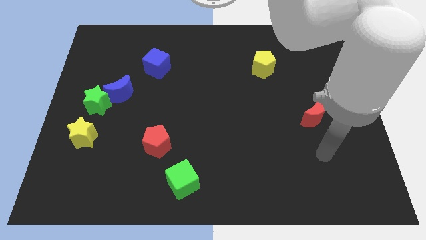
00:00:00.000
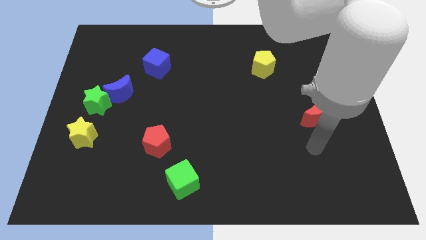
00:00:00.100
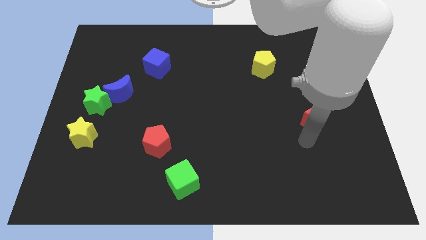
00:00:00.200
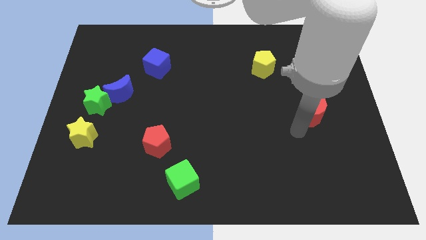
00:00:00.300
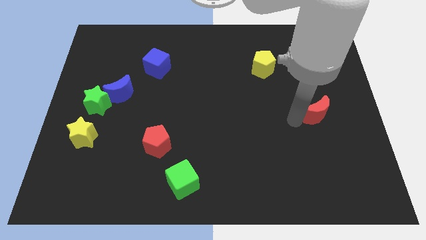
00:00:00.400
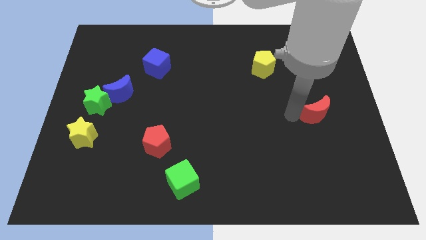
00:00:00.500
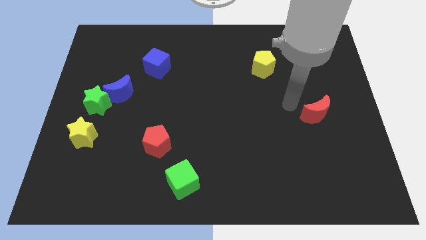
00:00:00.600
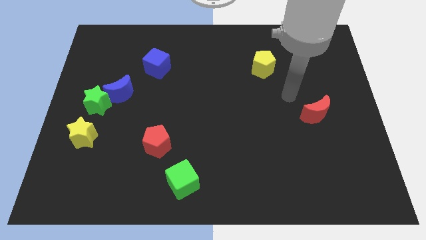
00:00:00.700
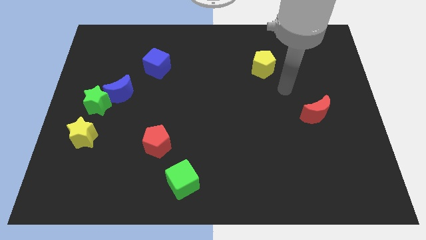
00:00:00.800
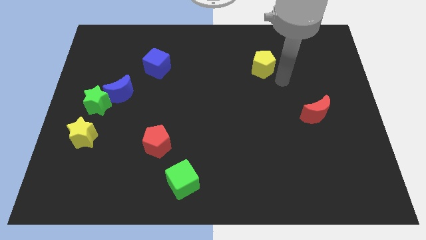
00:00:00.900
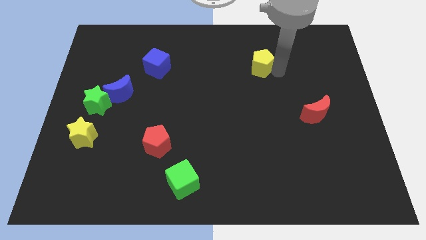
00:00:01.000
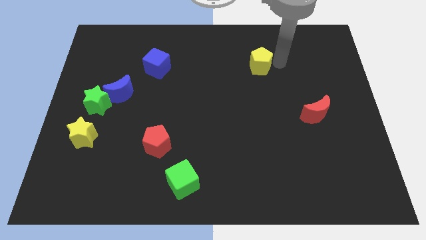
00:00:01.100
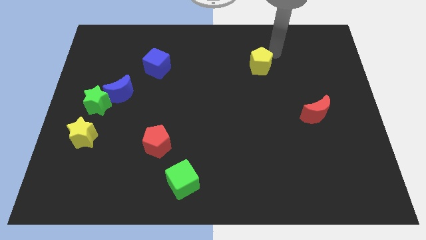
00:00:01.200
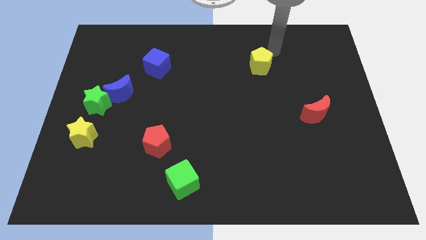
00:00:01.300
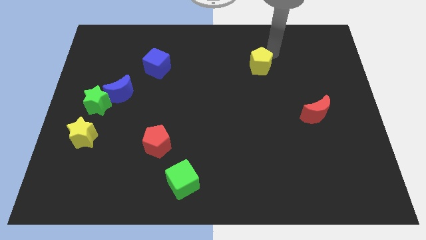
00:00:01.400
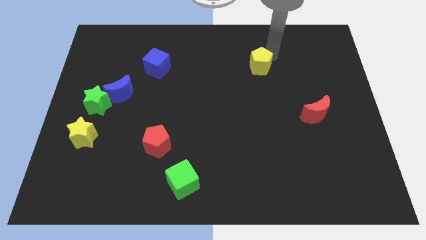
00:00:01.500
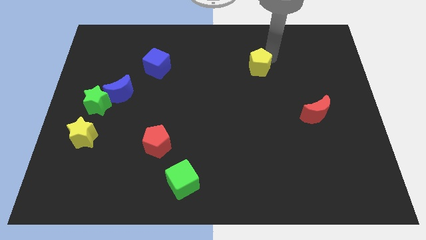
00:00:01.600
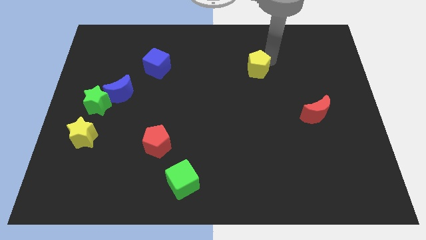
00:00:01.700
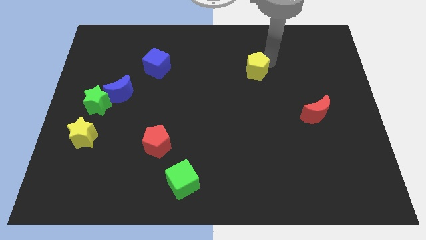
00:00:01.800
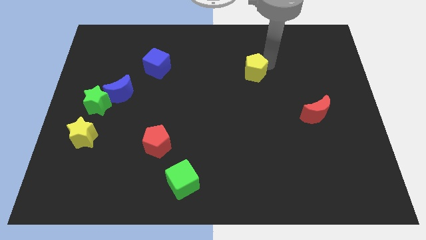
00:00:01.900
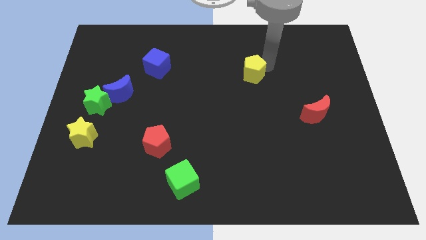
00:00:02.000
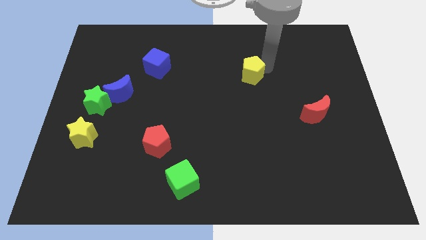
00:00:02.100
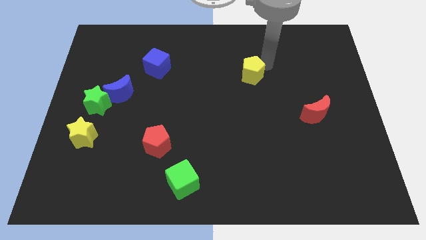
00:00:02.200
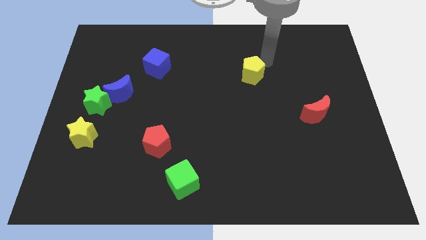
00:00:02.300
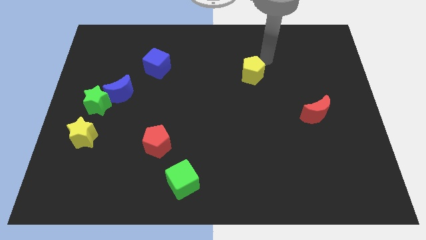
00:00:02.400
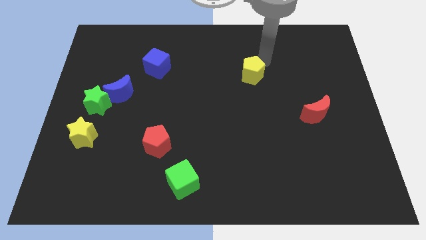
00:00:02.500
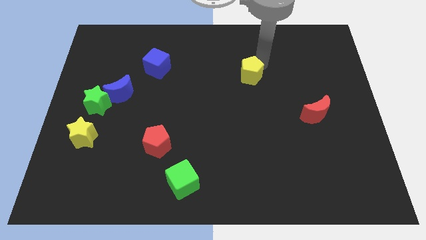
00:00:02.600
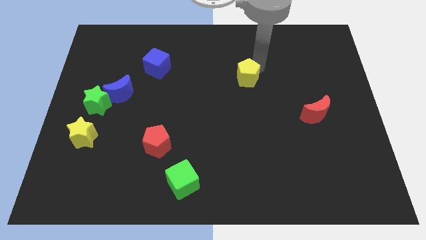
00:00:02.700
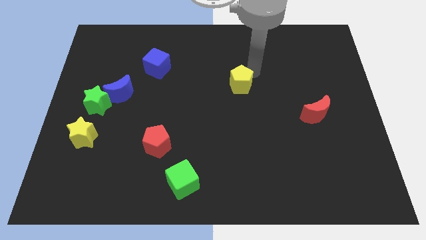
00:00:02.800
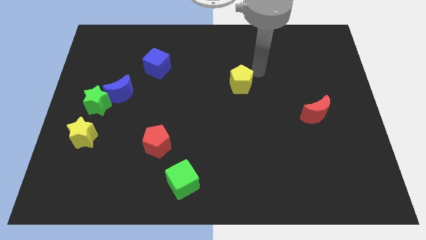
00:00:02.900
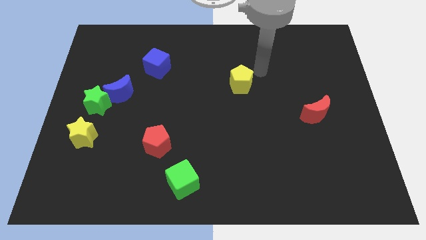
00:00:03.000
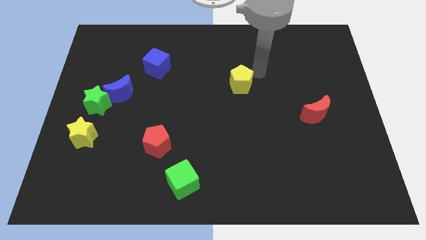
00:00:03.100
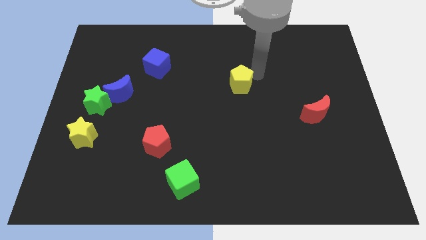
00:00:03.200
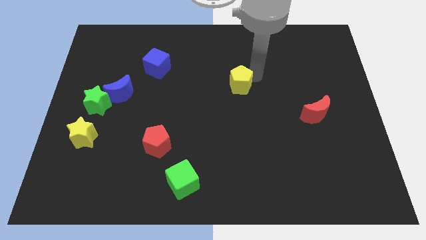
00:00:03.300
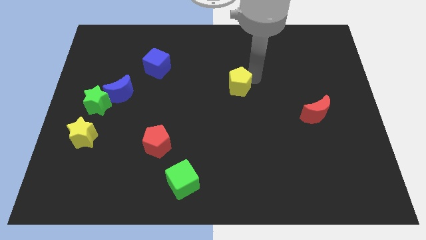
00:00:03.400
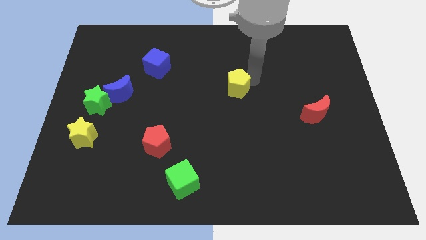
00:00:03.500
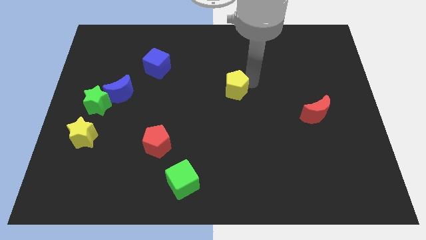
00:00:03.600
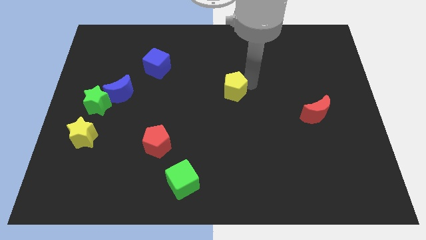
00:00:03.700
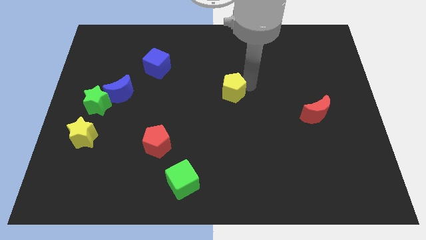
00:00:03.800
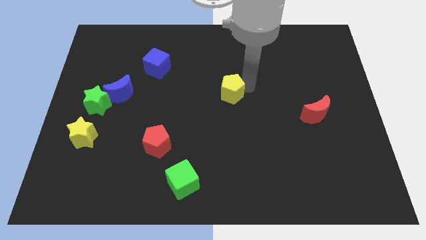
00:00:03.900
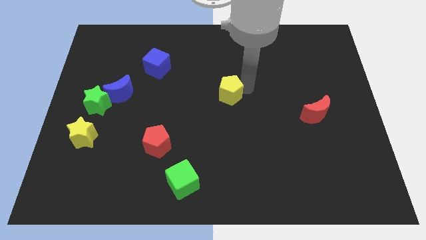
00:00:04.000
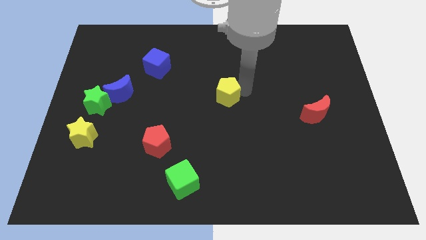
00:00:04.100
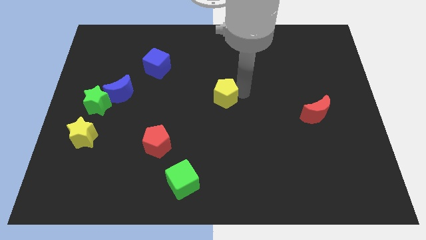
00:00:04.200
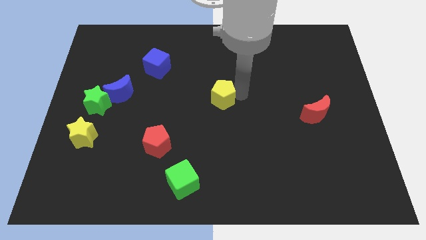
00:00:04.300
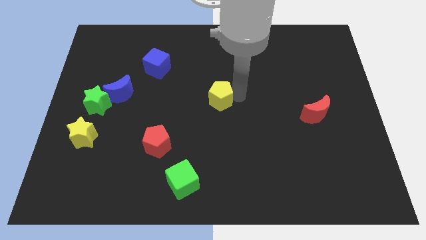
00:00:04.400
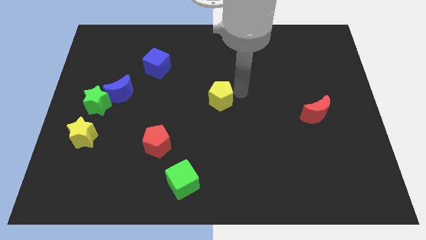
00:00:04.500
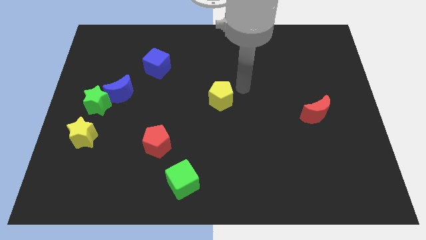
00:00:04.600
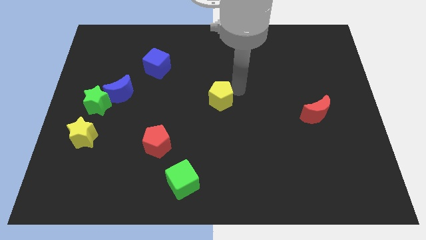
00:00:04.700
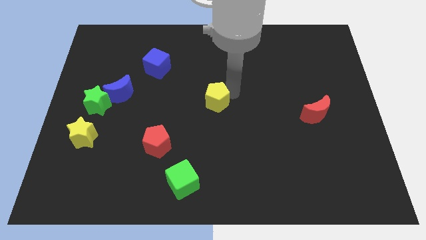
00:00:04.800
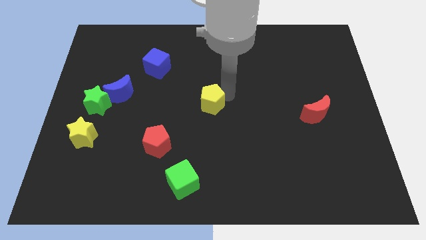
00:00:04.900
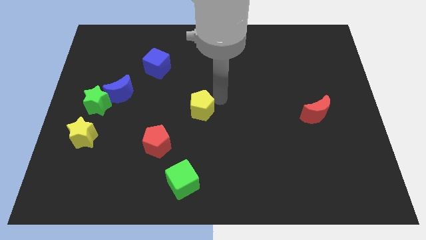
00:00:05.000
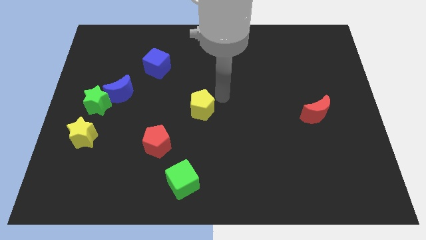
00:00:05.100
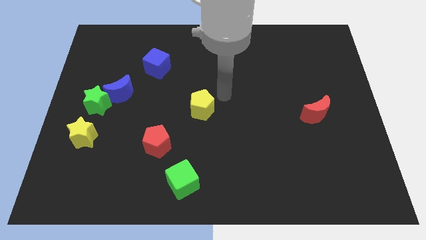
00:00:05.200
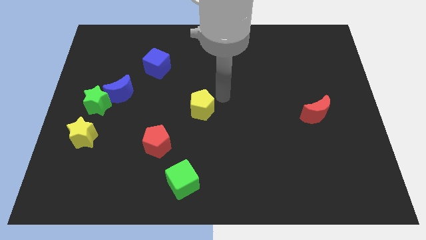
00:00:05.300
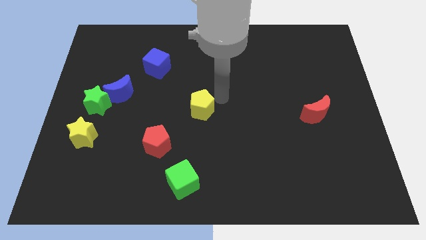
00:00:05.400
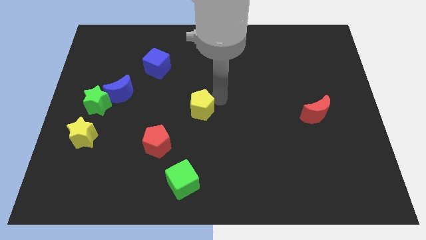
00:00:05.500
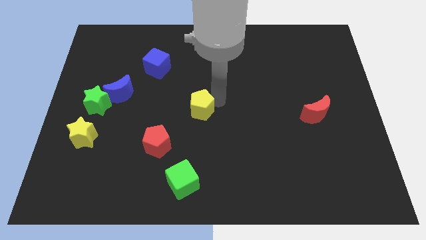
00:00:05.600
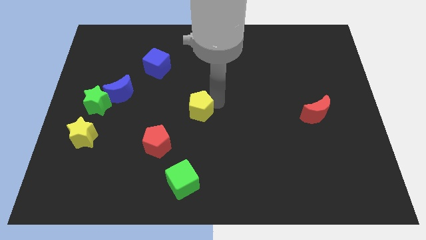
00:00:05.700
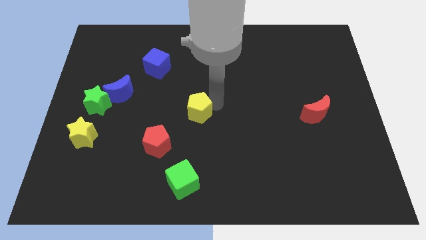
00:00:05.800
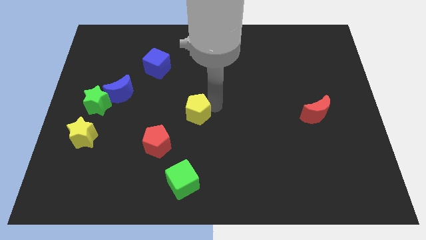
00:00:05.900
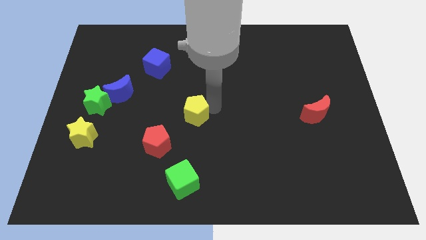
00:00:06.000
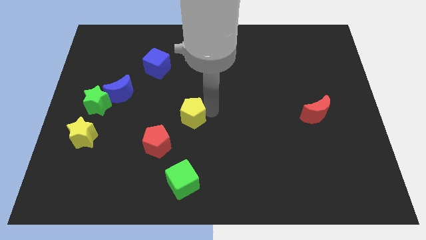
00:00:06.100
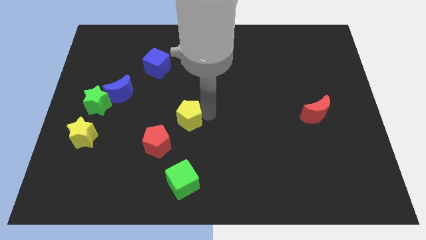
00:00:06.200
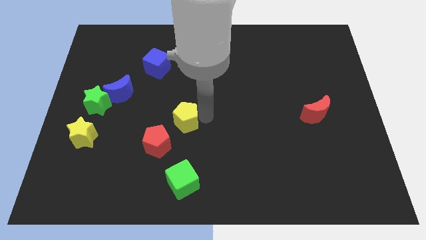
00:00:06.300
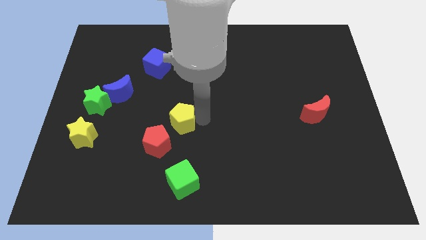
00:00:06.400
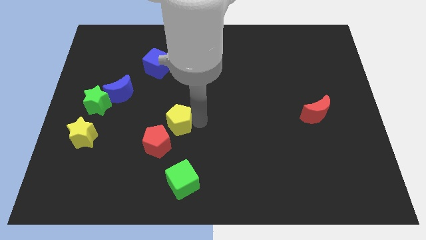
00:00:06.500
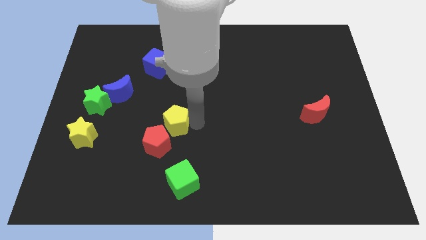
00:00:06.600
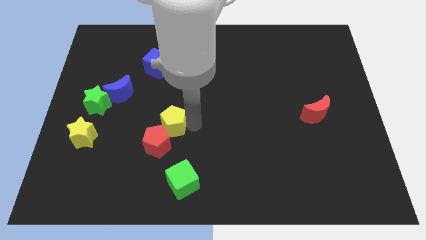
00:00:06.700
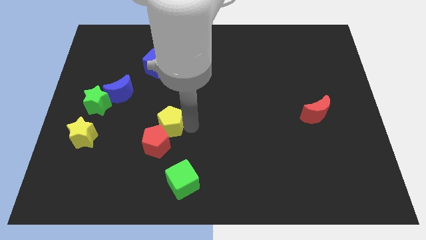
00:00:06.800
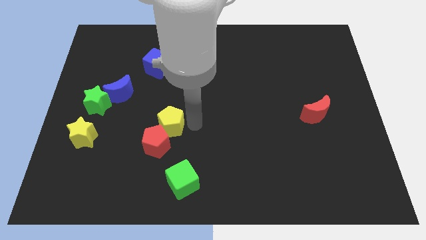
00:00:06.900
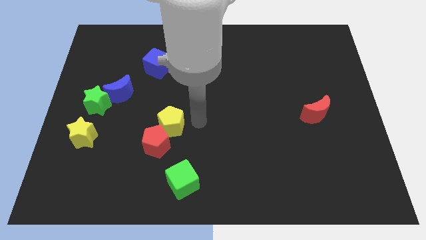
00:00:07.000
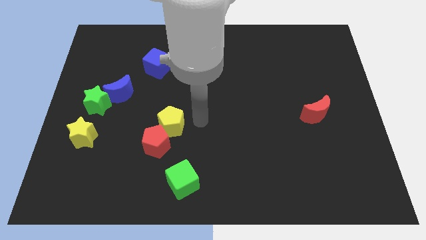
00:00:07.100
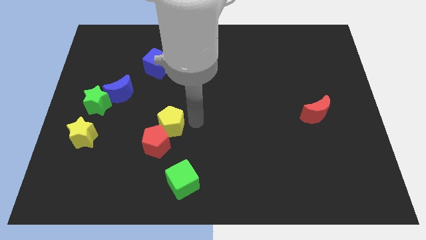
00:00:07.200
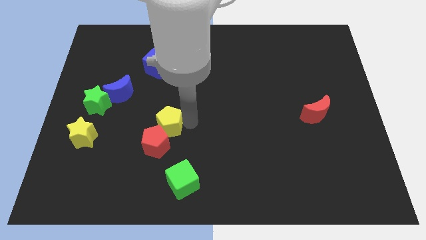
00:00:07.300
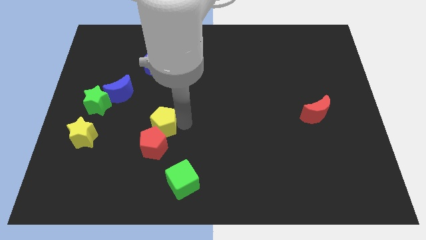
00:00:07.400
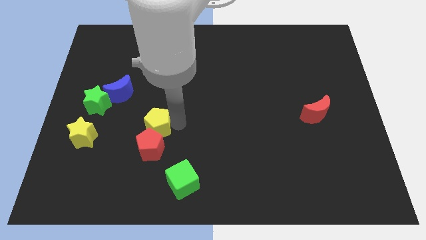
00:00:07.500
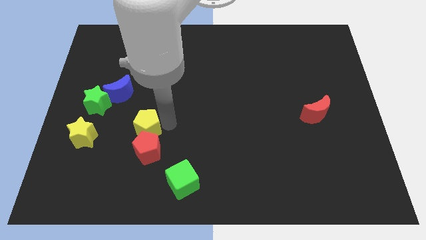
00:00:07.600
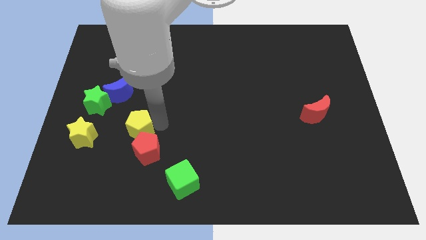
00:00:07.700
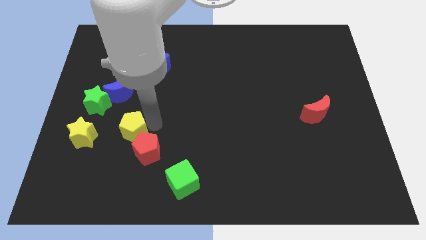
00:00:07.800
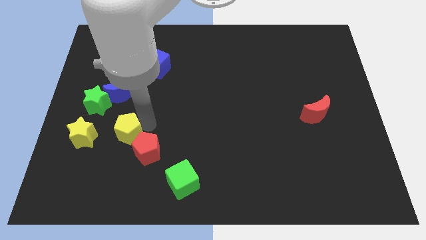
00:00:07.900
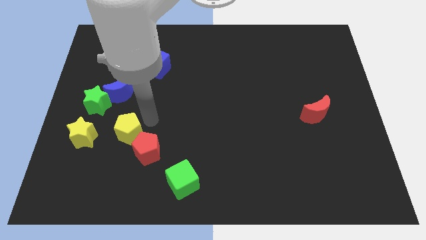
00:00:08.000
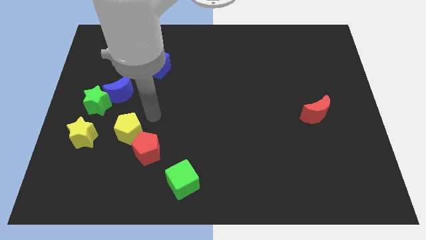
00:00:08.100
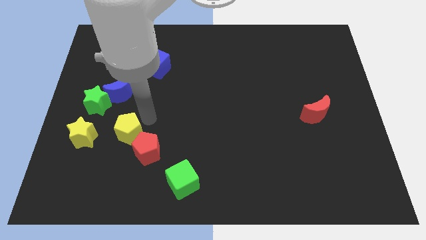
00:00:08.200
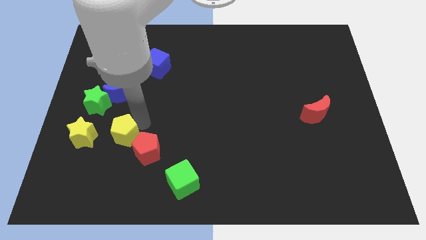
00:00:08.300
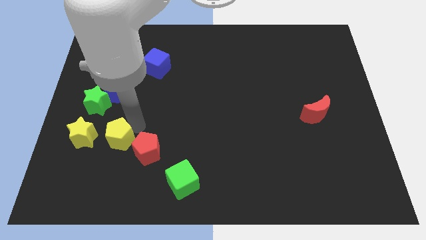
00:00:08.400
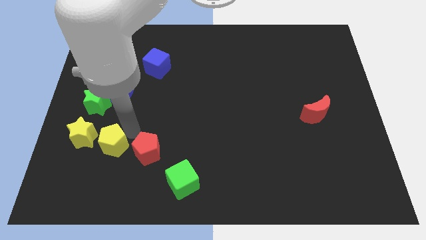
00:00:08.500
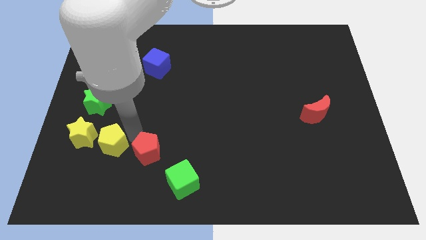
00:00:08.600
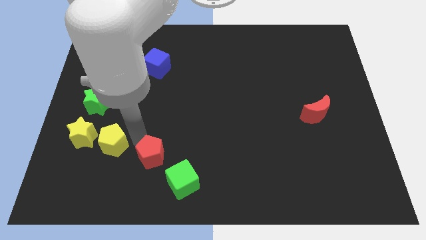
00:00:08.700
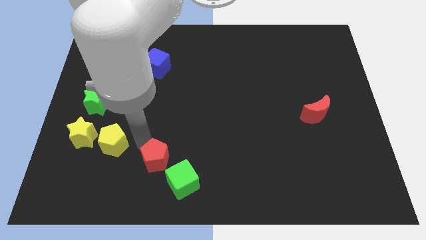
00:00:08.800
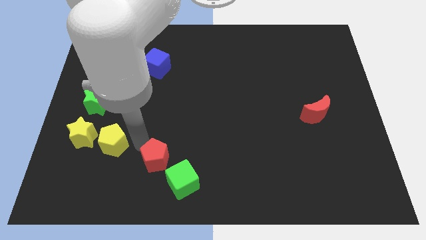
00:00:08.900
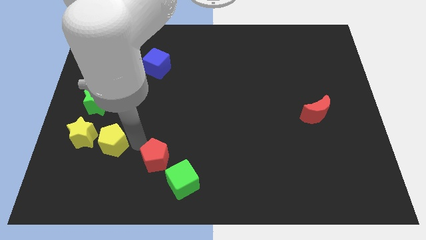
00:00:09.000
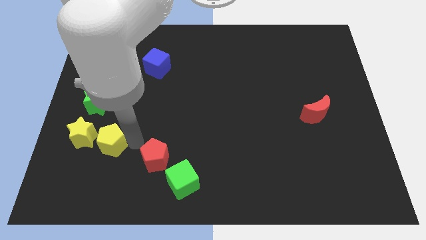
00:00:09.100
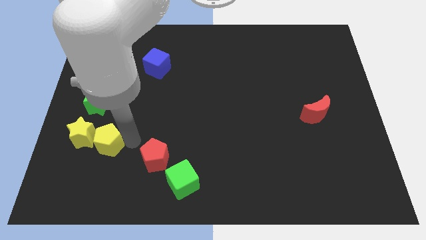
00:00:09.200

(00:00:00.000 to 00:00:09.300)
push the yellow pentagon to the bottom of the green star
